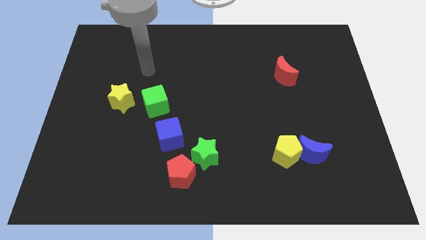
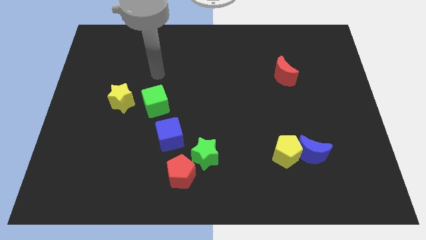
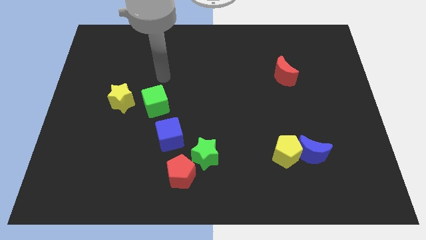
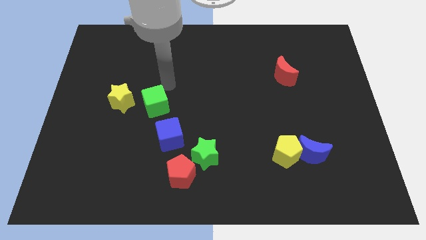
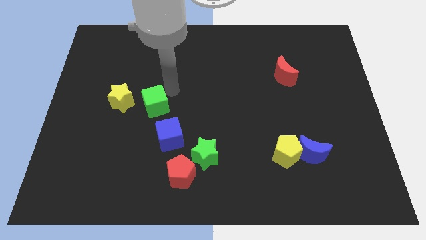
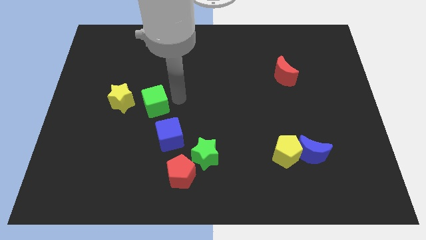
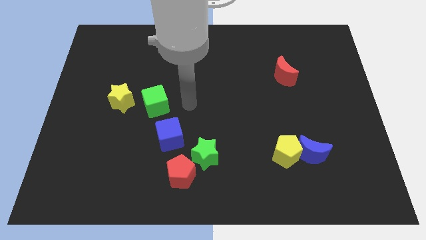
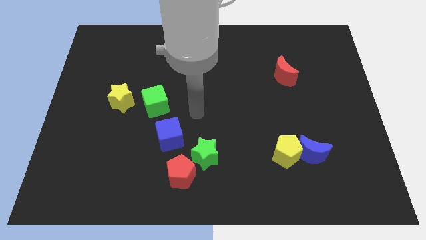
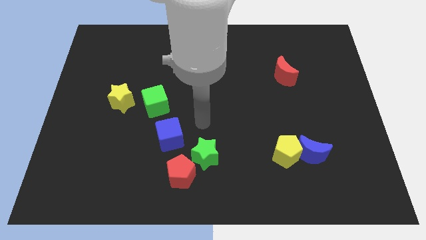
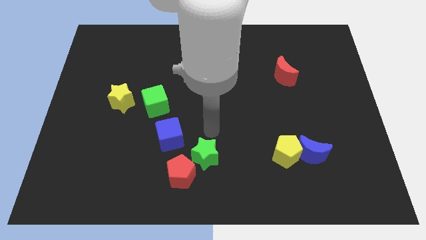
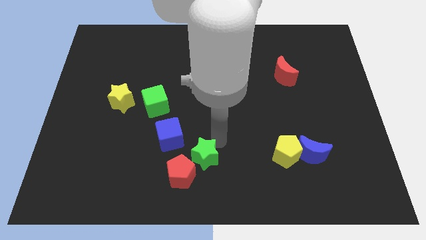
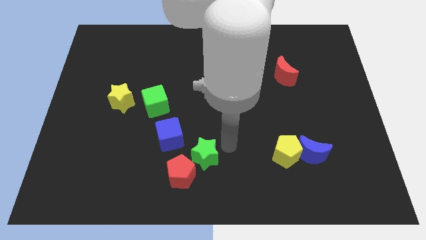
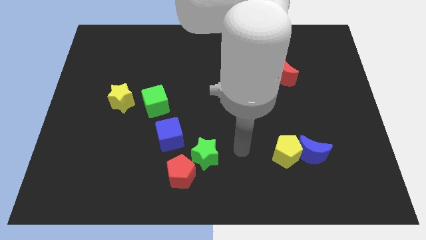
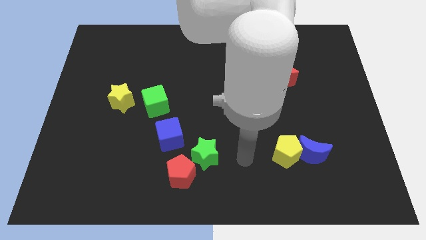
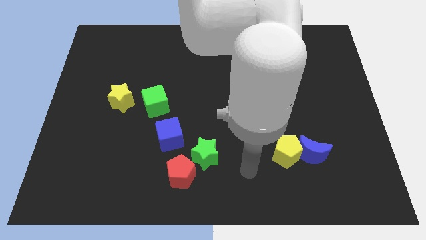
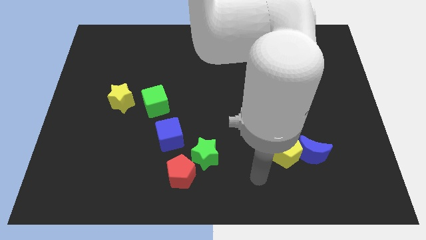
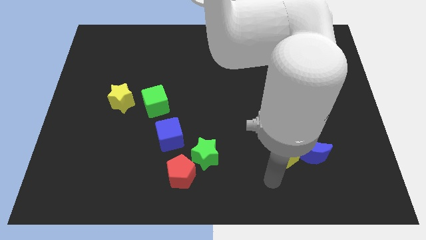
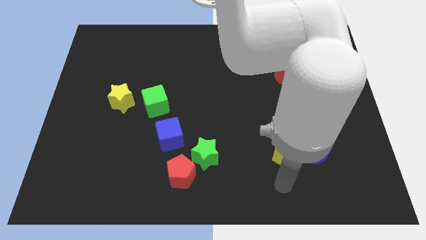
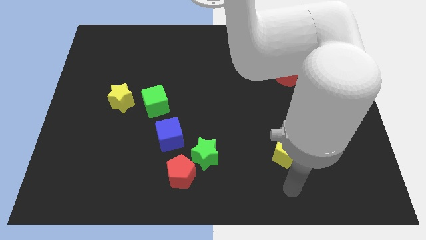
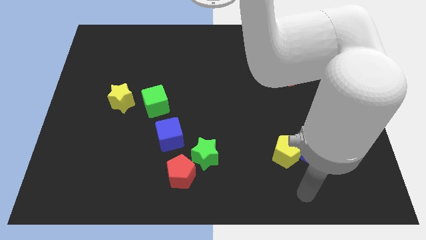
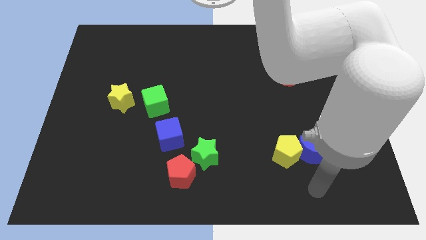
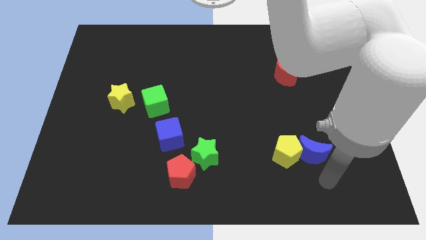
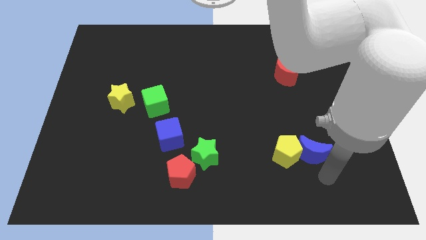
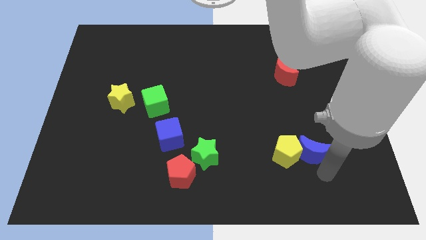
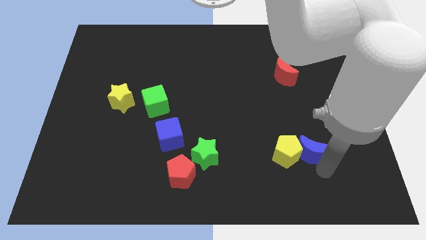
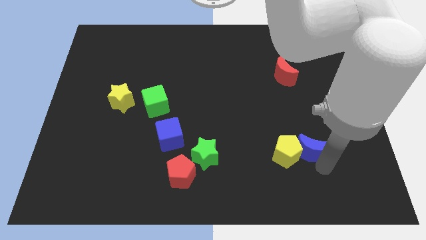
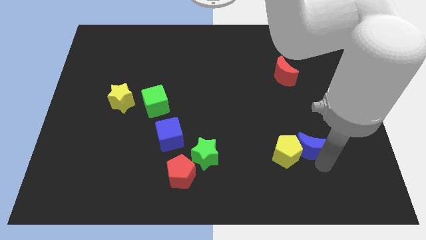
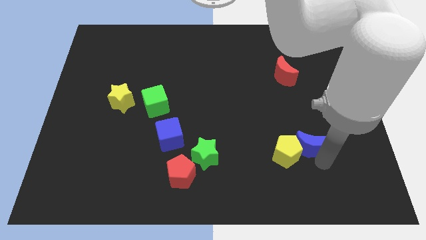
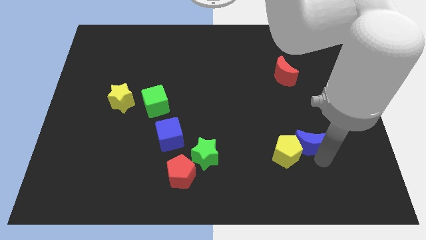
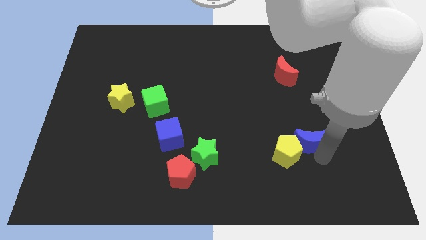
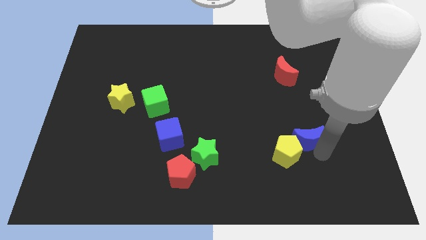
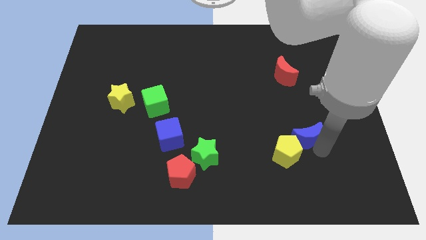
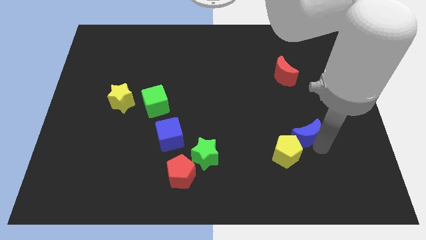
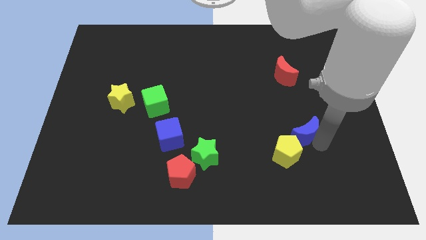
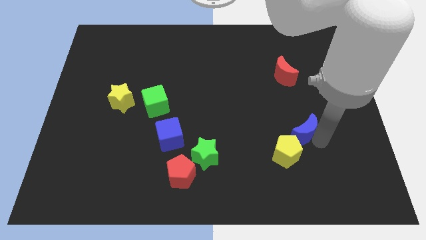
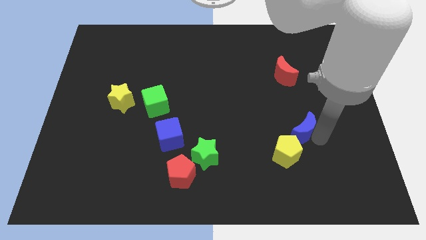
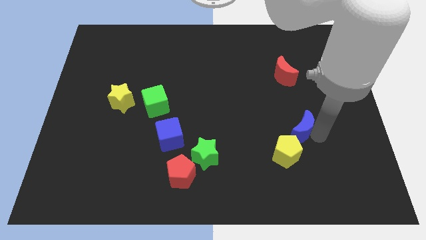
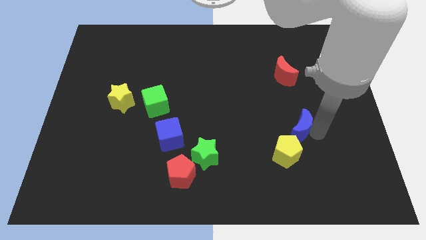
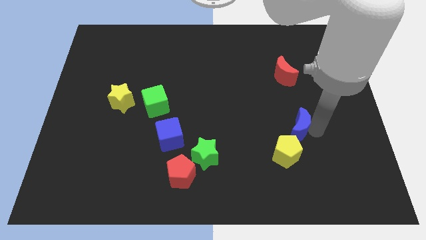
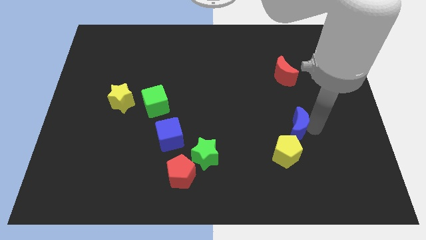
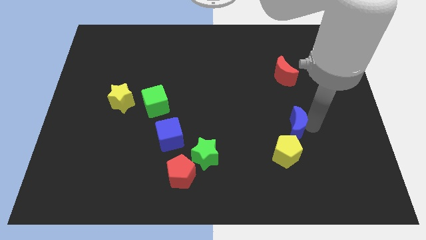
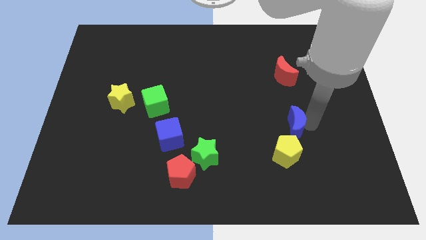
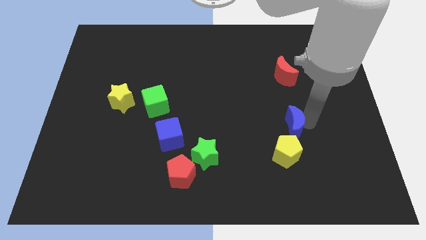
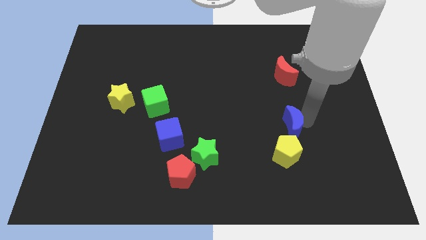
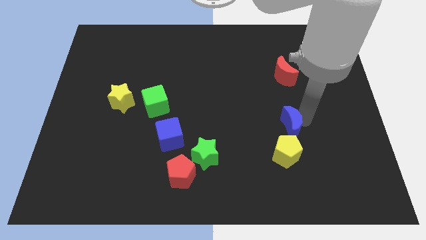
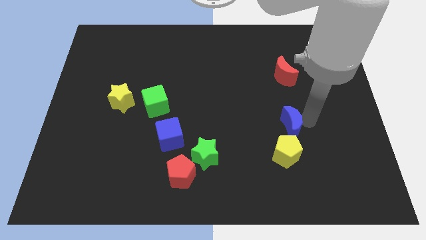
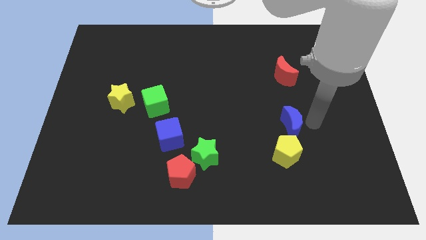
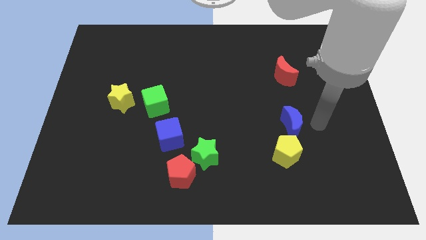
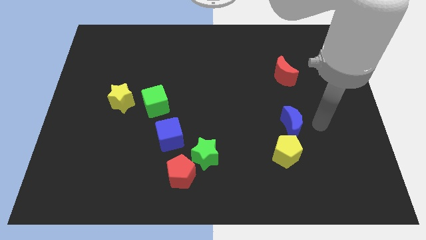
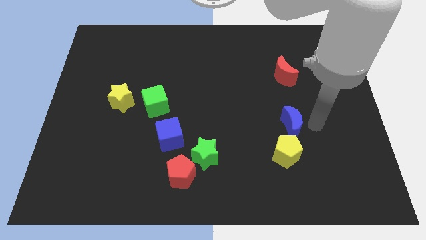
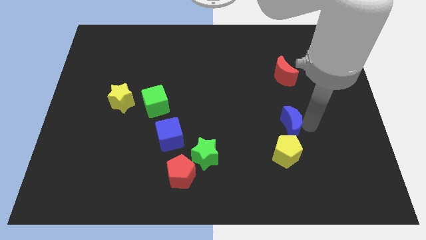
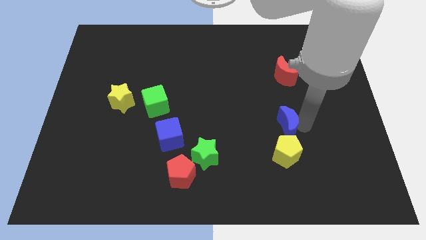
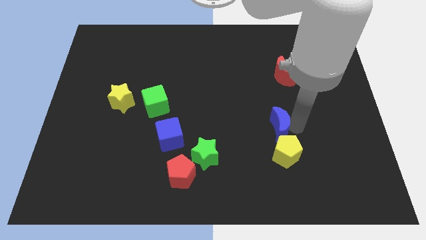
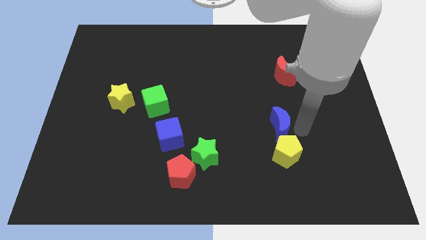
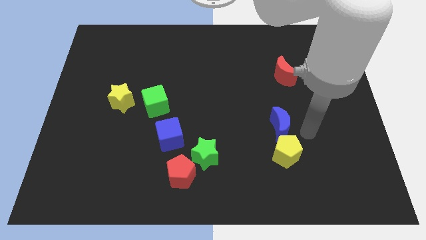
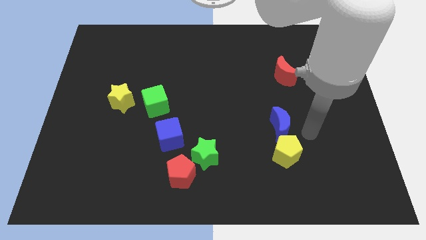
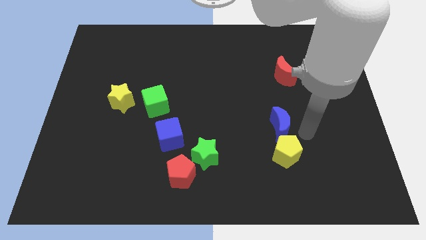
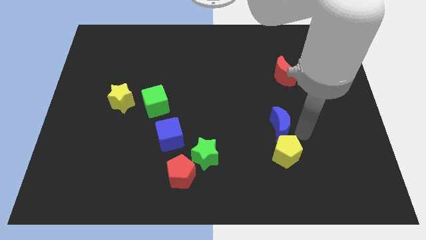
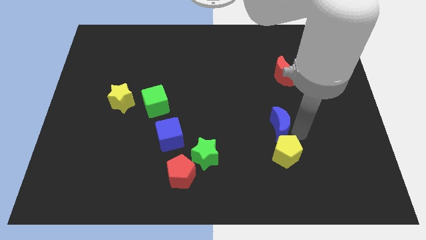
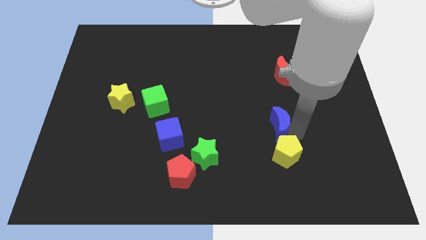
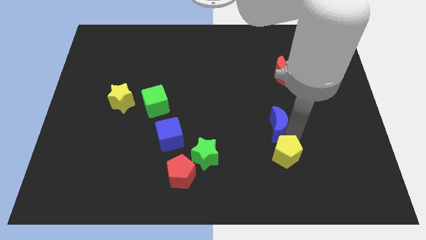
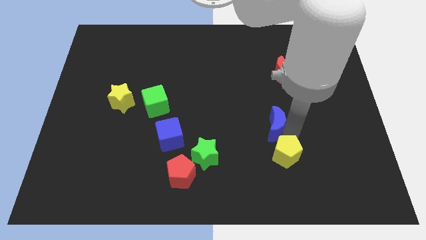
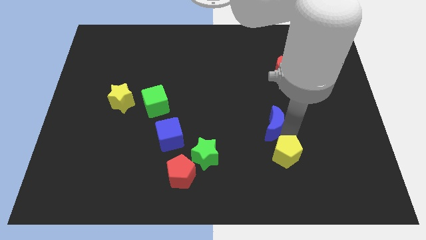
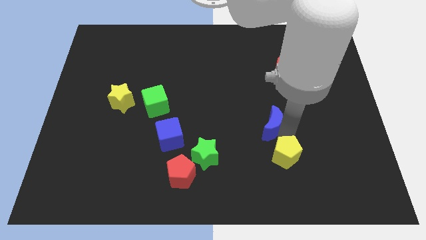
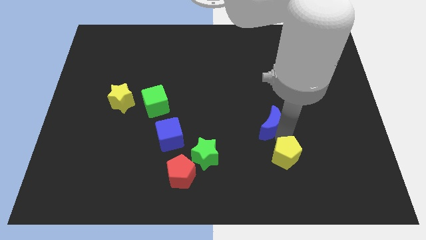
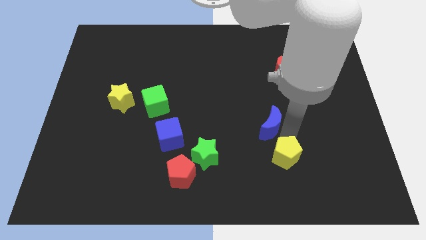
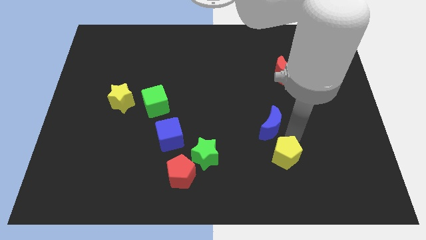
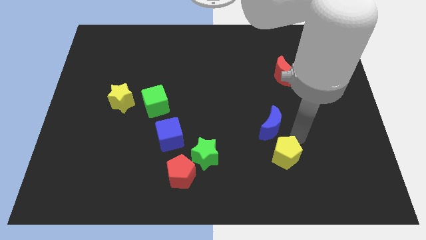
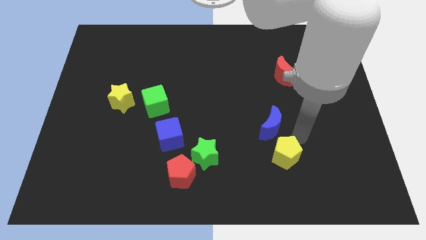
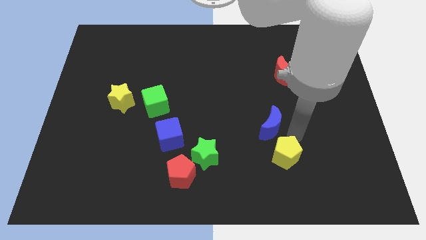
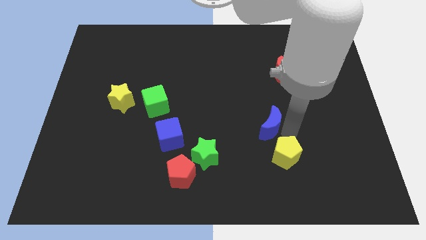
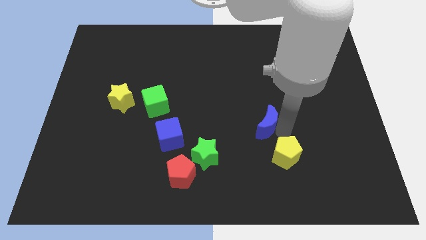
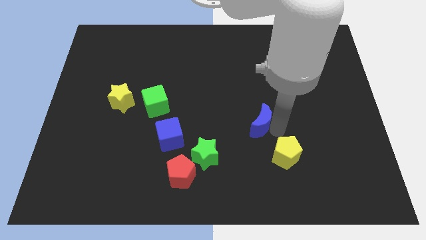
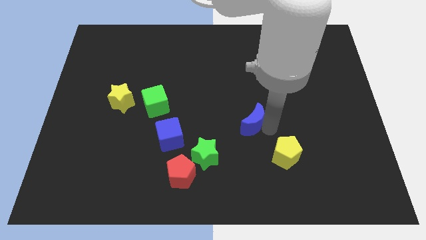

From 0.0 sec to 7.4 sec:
put the blue moon to the center of the board

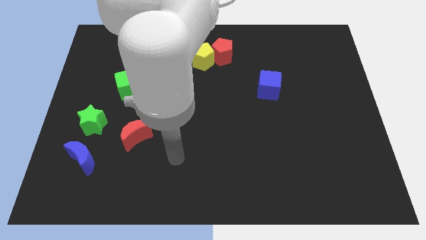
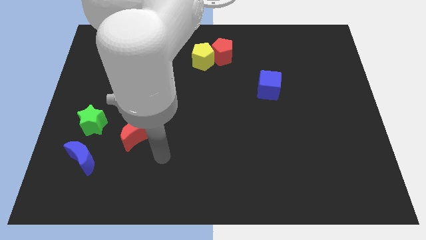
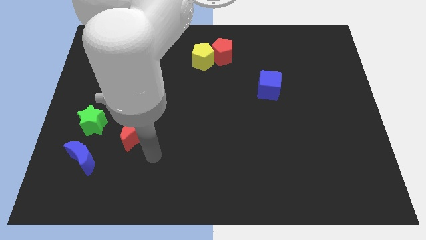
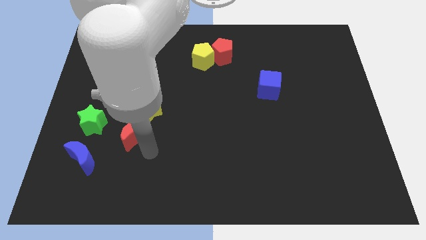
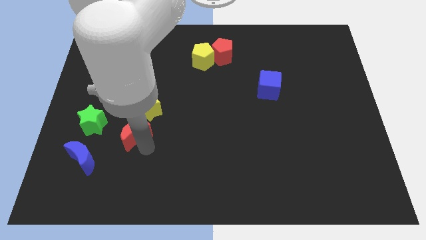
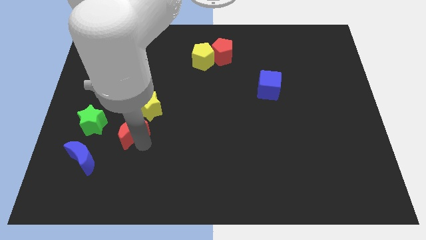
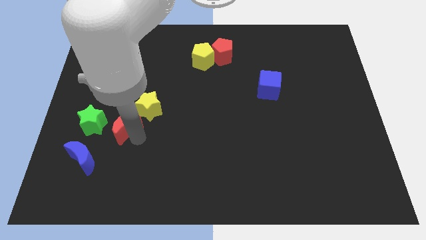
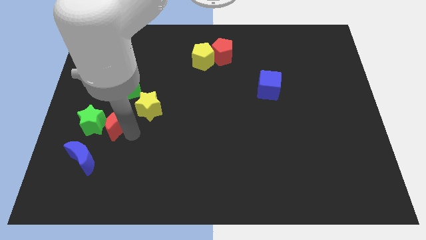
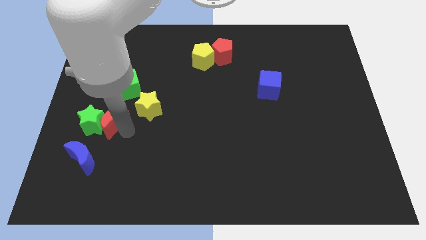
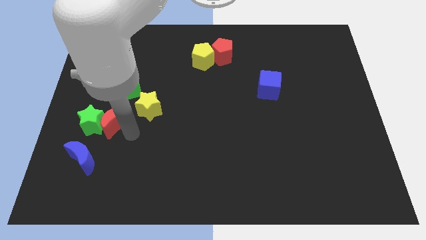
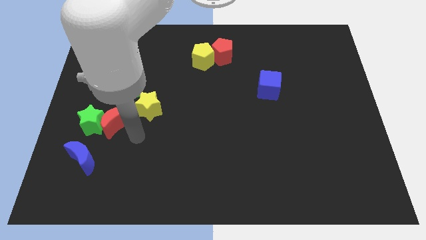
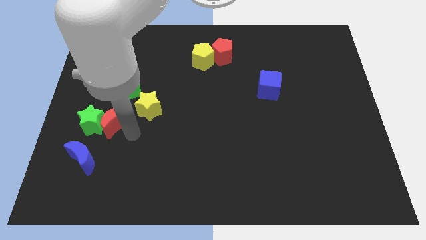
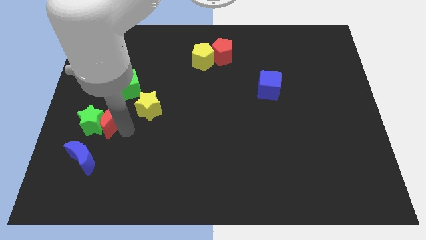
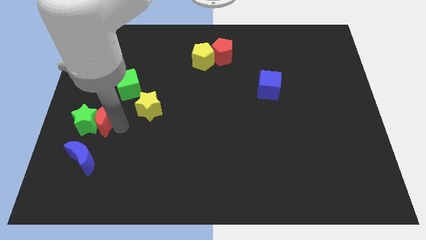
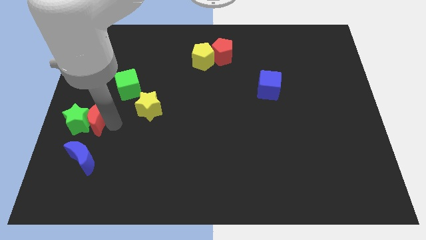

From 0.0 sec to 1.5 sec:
slide the red moon to the center left
